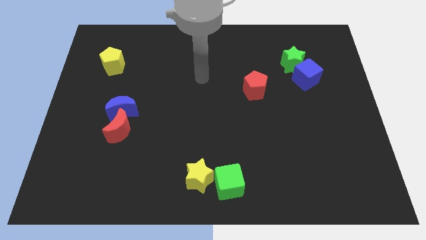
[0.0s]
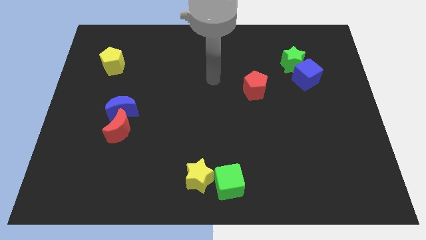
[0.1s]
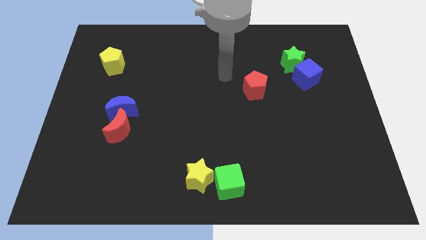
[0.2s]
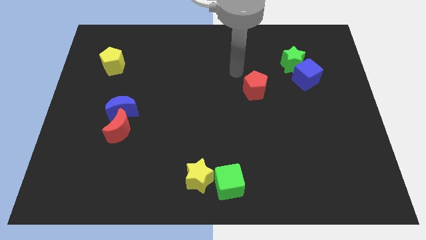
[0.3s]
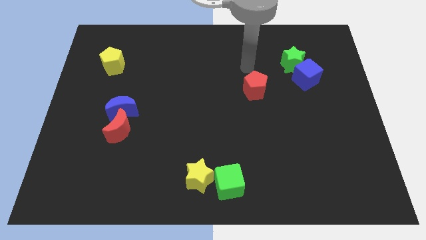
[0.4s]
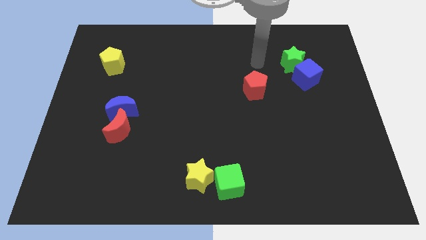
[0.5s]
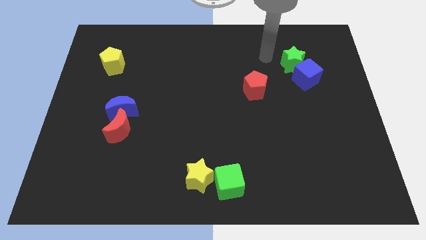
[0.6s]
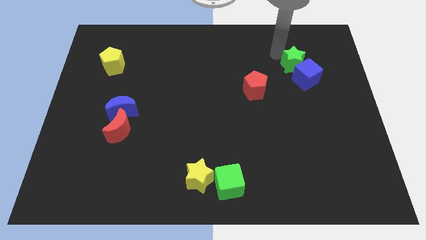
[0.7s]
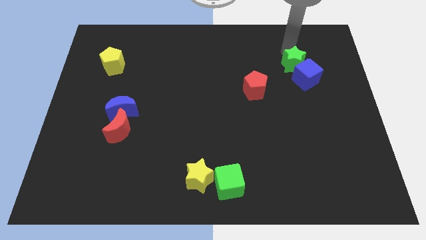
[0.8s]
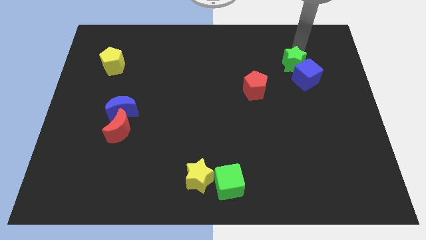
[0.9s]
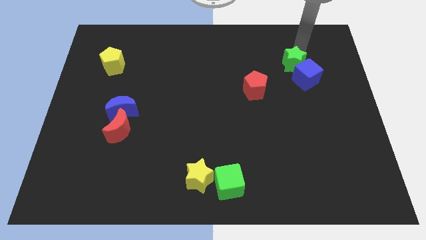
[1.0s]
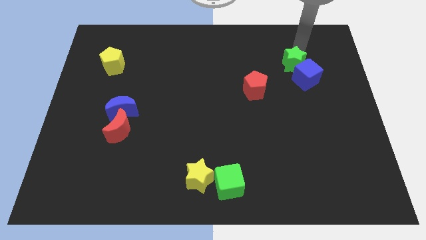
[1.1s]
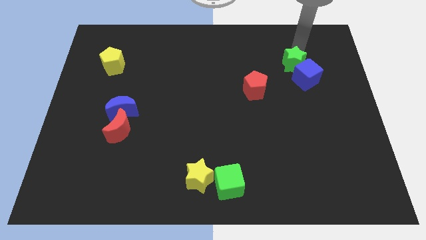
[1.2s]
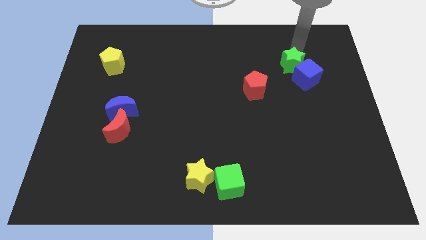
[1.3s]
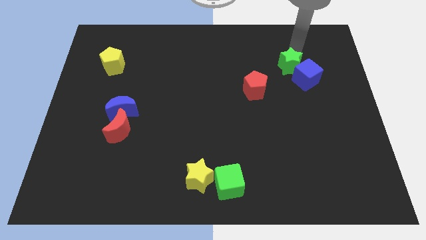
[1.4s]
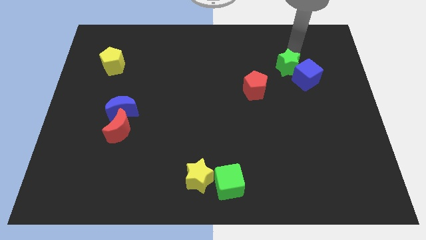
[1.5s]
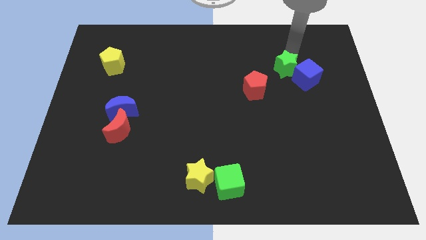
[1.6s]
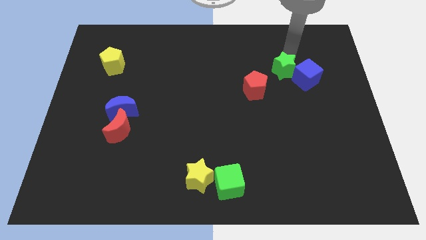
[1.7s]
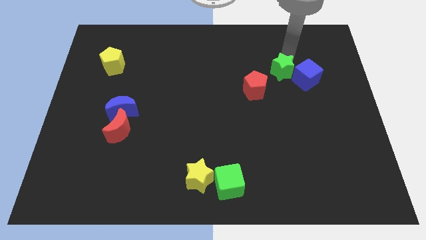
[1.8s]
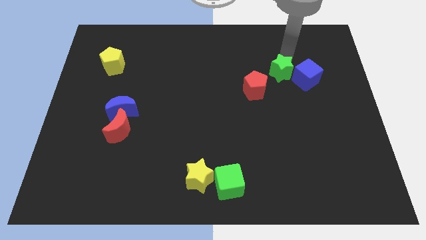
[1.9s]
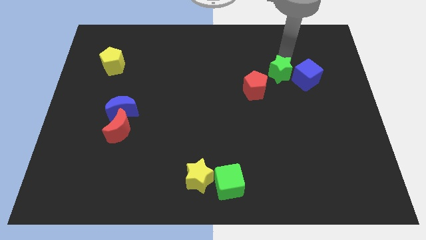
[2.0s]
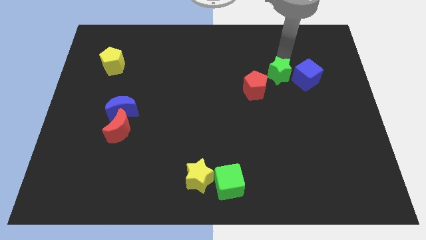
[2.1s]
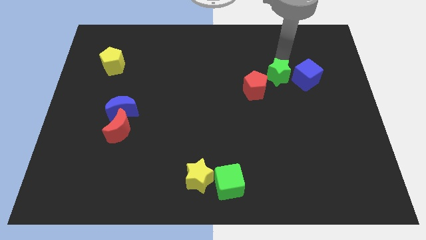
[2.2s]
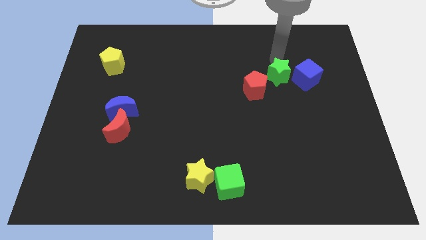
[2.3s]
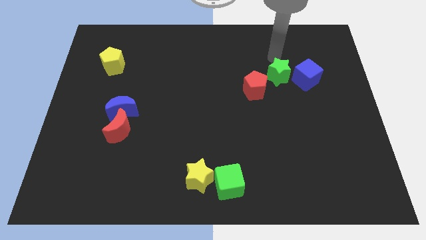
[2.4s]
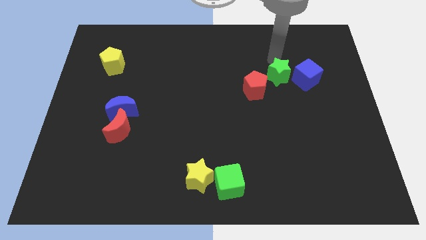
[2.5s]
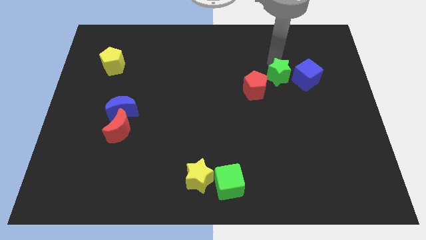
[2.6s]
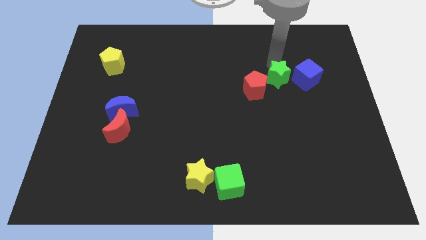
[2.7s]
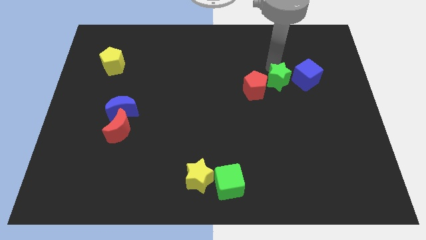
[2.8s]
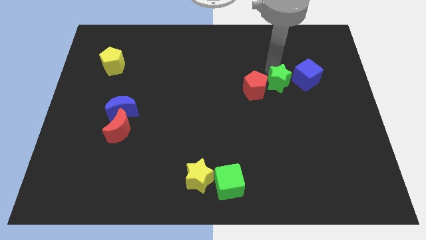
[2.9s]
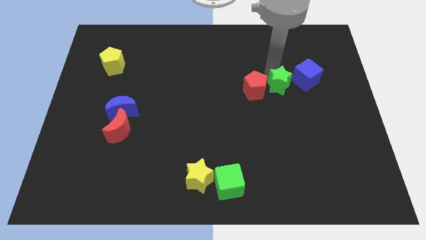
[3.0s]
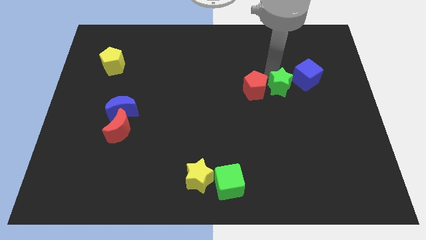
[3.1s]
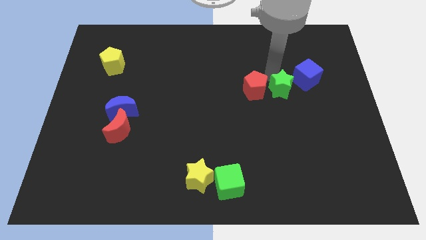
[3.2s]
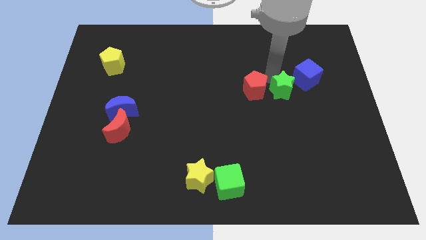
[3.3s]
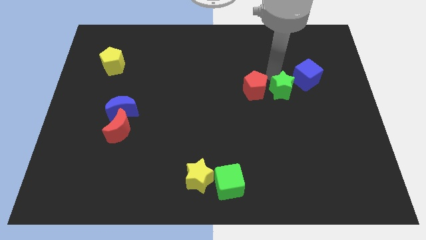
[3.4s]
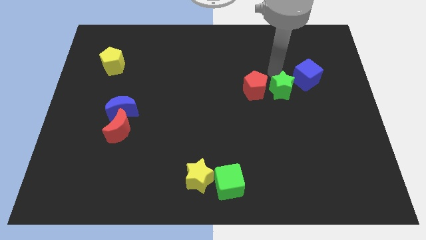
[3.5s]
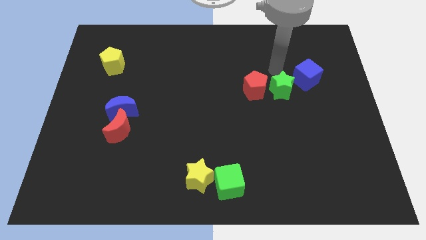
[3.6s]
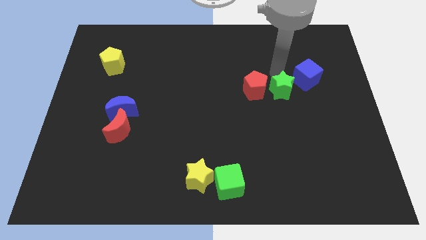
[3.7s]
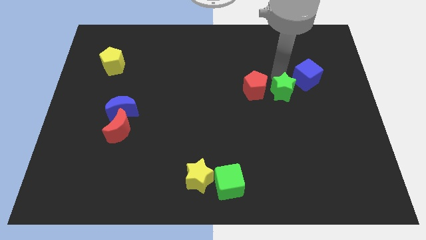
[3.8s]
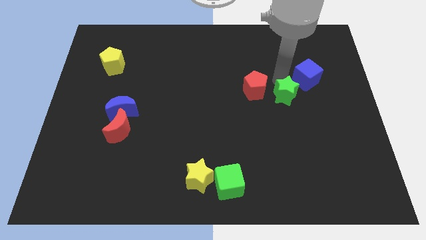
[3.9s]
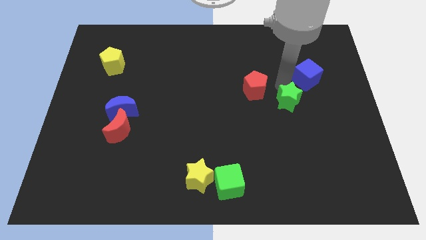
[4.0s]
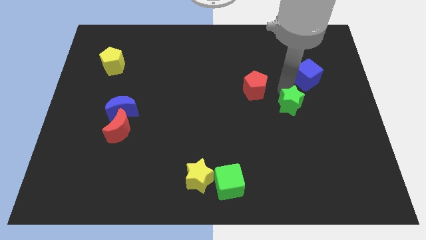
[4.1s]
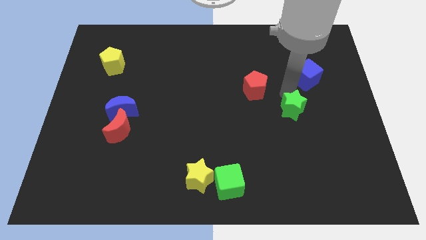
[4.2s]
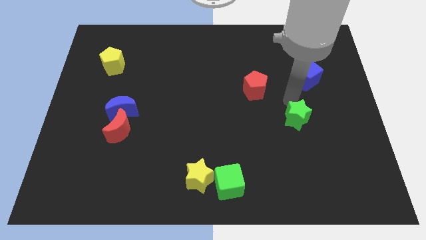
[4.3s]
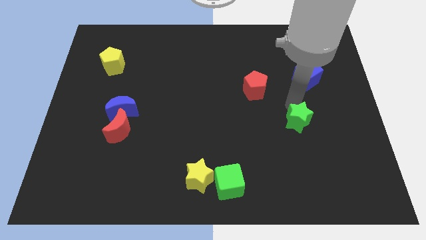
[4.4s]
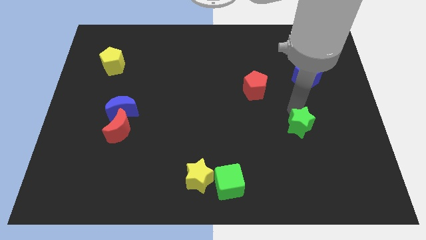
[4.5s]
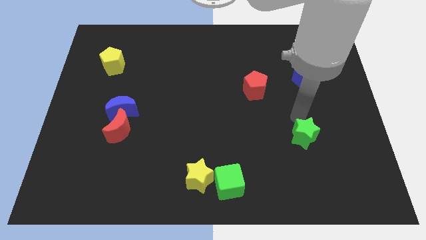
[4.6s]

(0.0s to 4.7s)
move the green star downwards

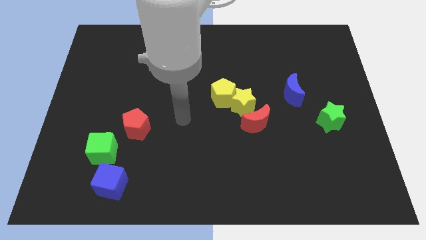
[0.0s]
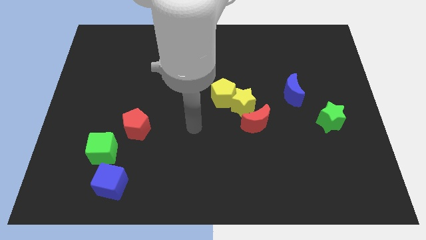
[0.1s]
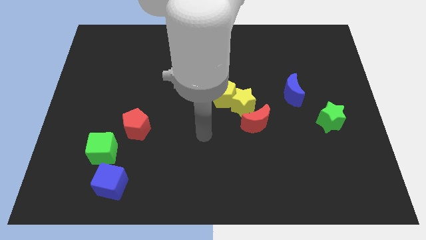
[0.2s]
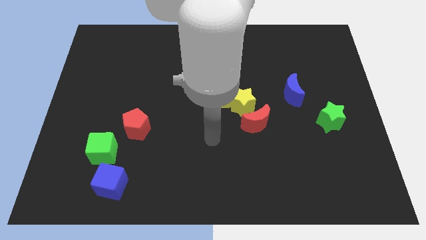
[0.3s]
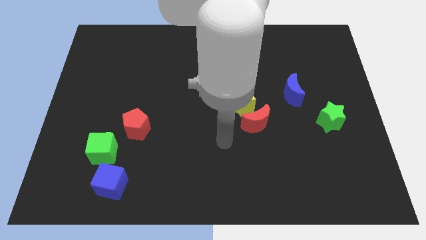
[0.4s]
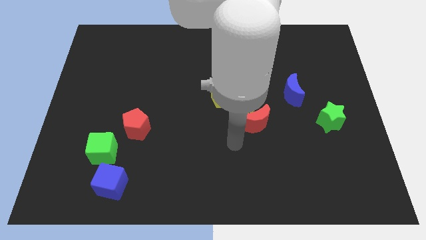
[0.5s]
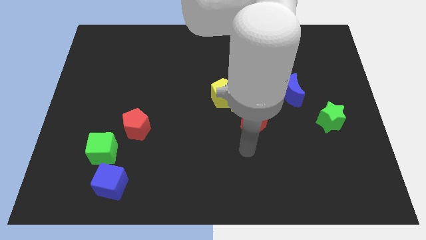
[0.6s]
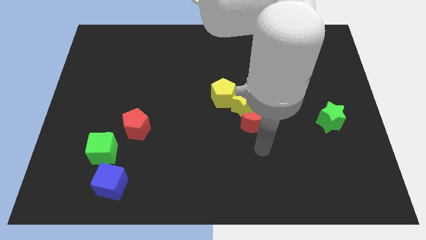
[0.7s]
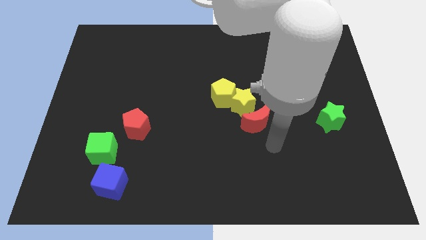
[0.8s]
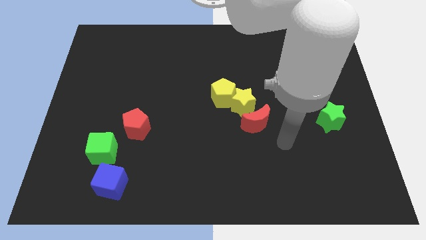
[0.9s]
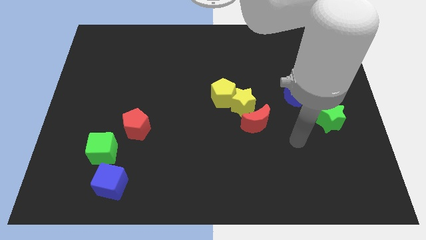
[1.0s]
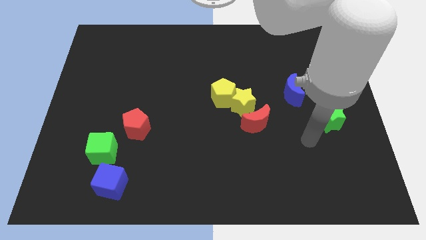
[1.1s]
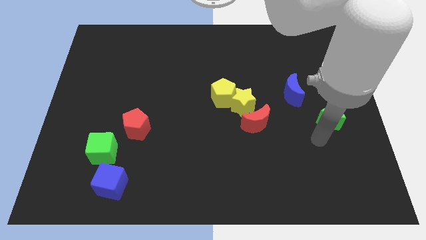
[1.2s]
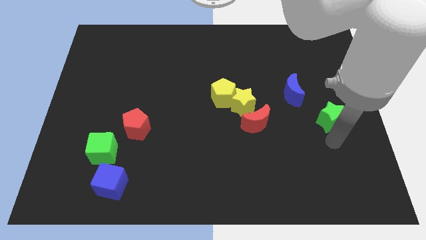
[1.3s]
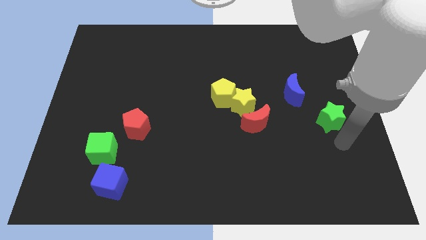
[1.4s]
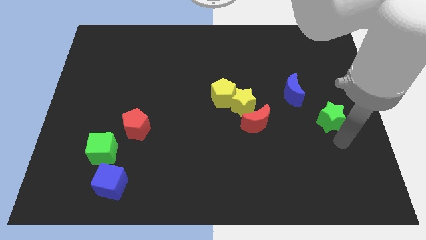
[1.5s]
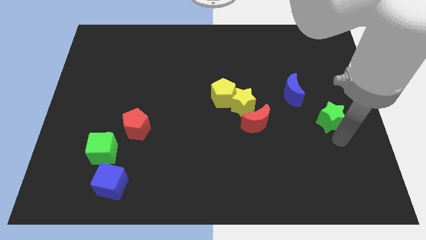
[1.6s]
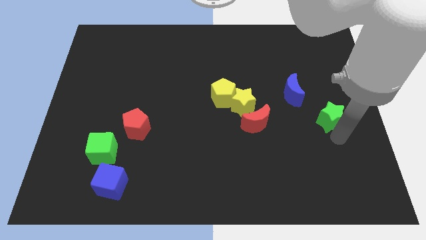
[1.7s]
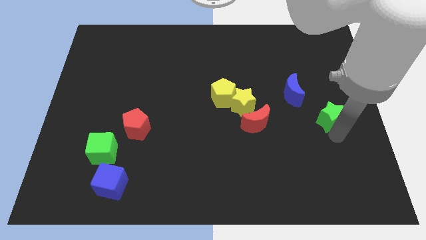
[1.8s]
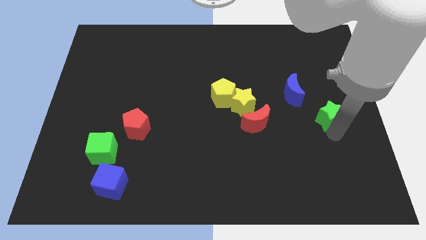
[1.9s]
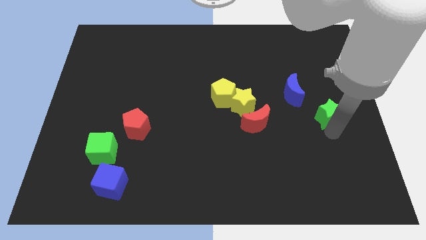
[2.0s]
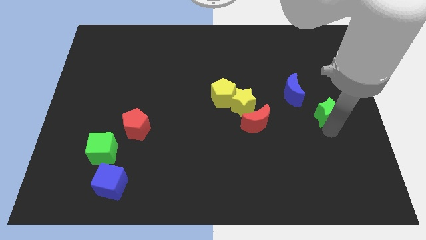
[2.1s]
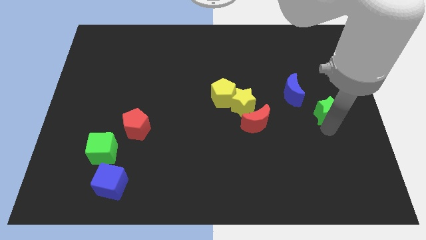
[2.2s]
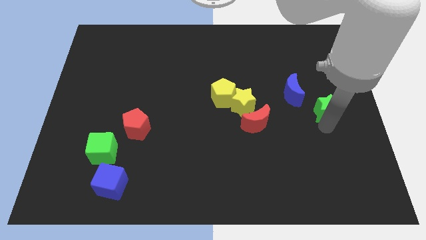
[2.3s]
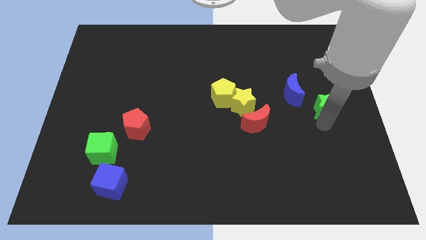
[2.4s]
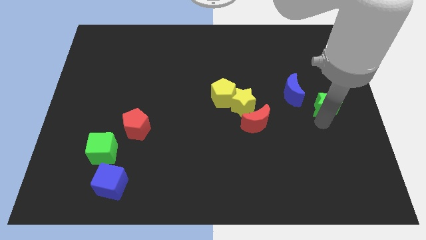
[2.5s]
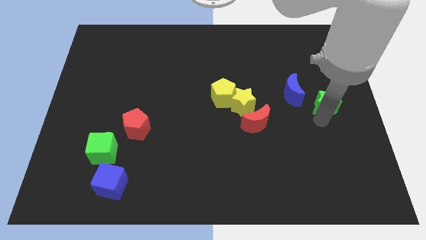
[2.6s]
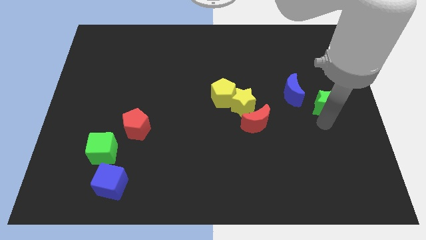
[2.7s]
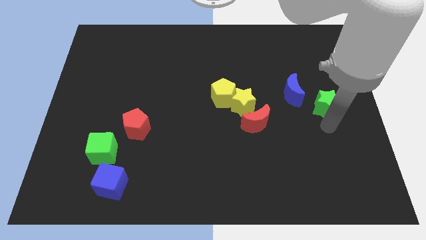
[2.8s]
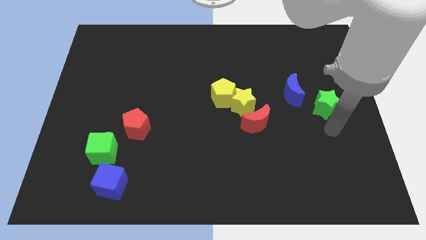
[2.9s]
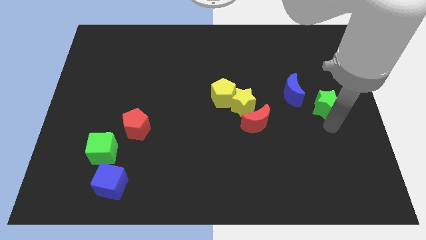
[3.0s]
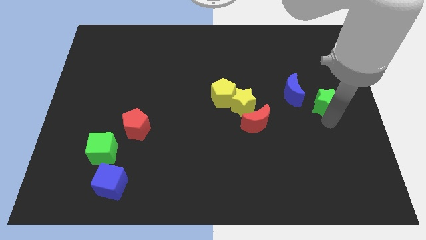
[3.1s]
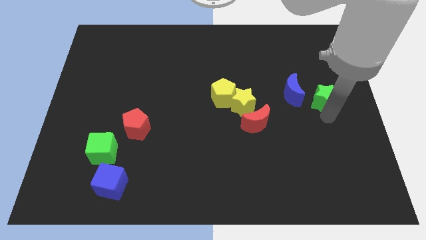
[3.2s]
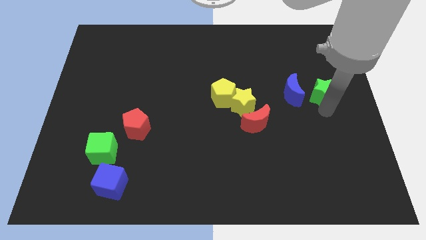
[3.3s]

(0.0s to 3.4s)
push the green star upwards somewhat
